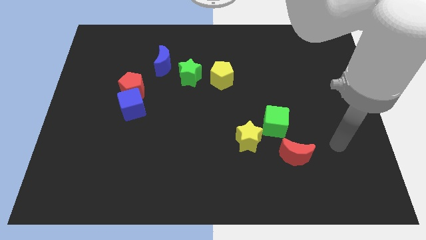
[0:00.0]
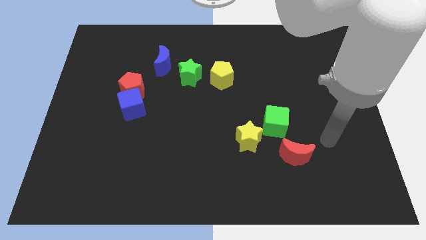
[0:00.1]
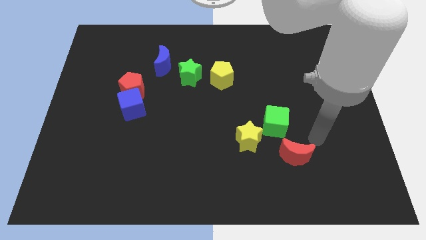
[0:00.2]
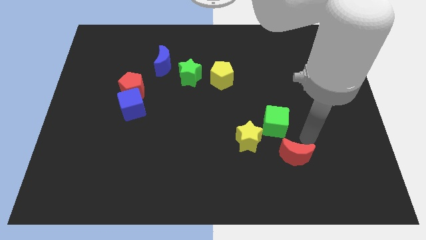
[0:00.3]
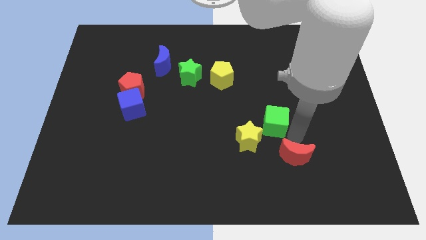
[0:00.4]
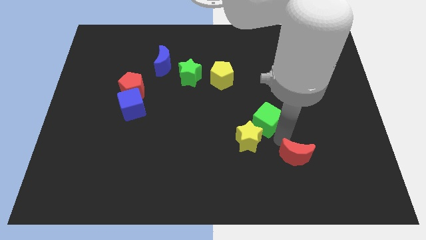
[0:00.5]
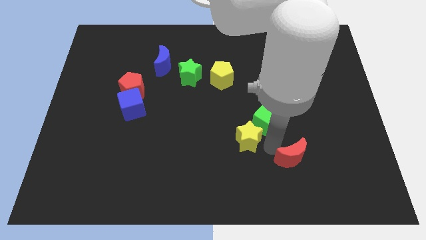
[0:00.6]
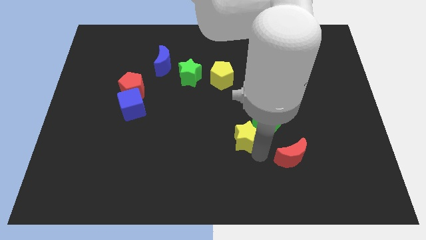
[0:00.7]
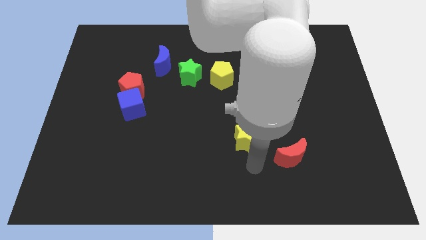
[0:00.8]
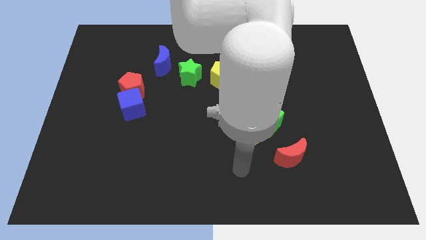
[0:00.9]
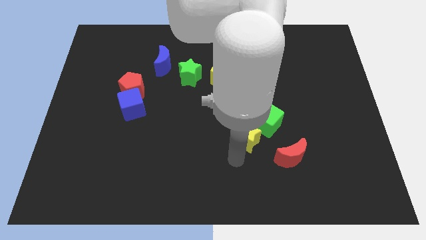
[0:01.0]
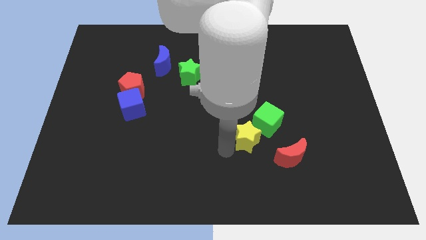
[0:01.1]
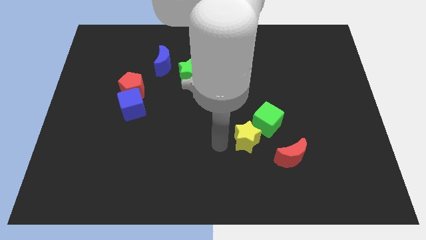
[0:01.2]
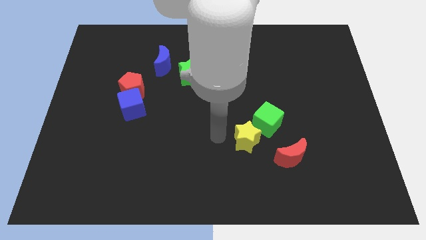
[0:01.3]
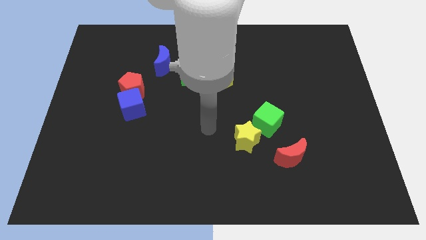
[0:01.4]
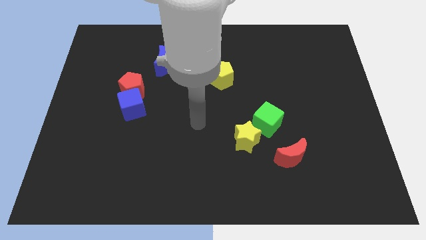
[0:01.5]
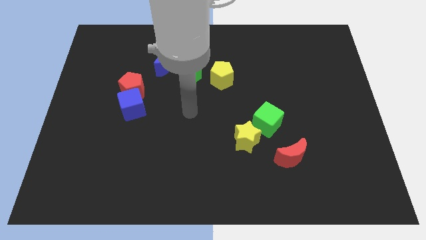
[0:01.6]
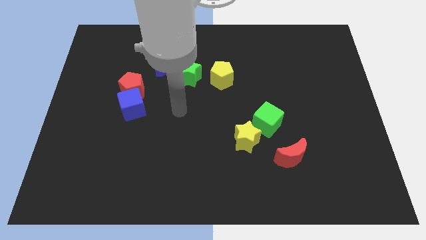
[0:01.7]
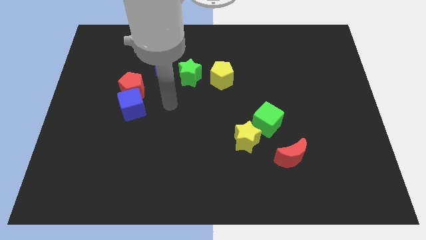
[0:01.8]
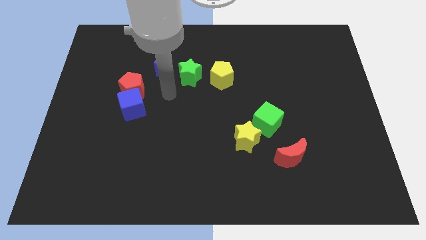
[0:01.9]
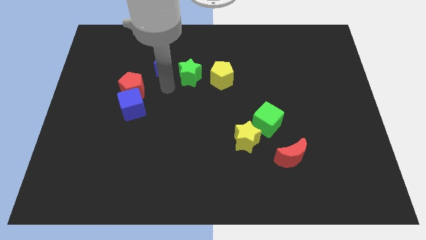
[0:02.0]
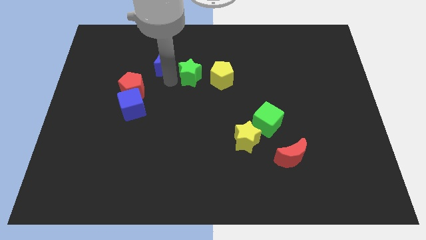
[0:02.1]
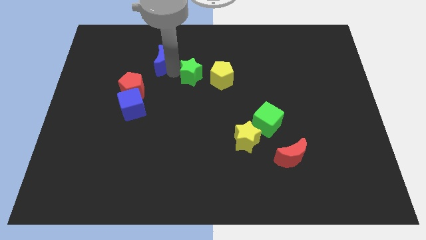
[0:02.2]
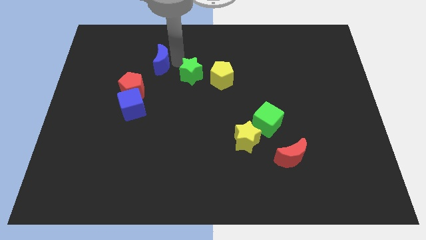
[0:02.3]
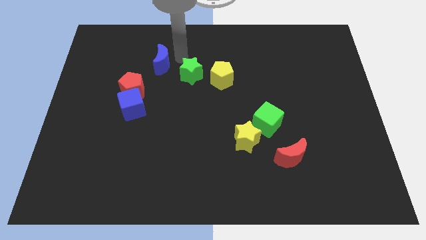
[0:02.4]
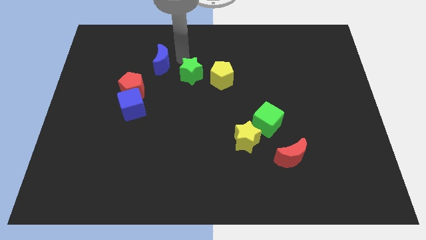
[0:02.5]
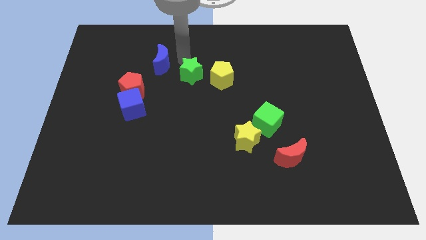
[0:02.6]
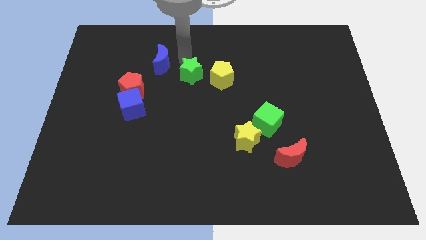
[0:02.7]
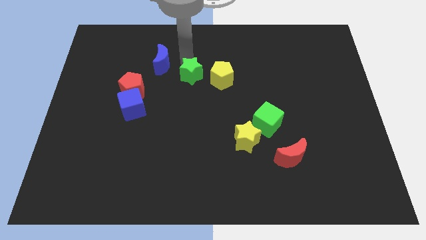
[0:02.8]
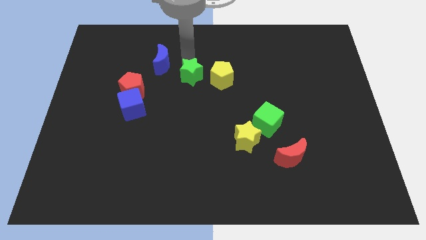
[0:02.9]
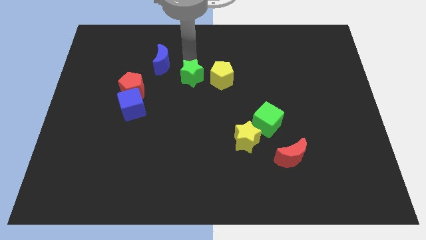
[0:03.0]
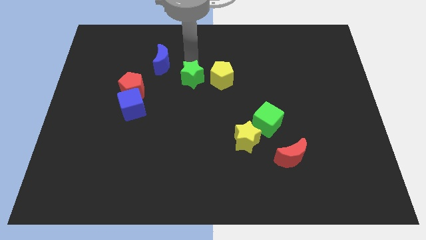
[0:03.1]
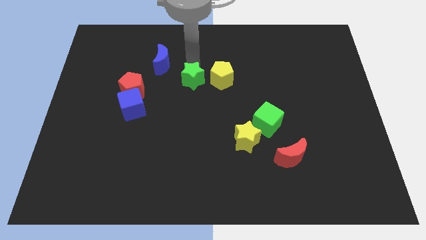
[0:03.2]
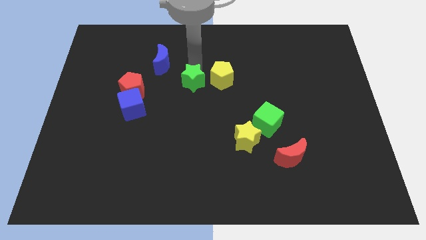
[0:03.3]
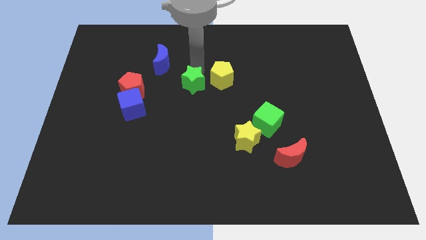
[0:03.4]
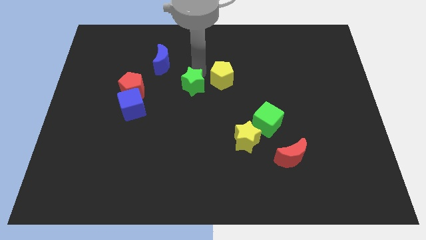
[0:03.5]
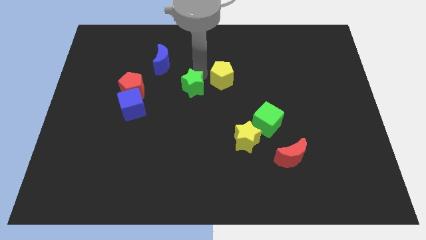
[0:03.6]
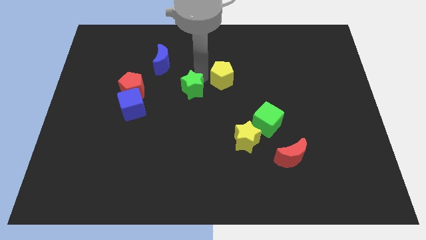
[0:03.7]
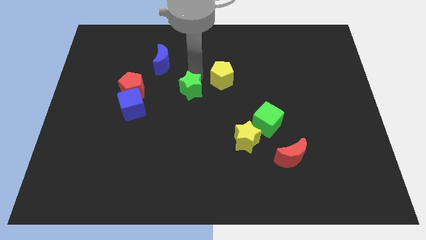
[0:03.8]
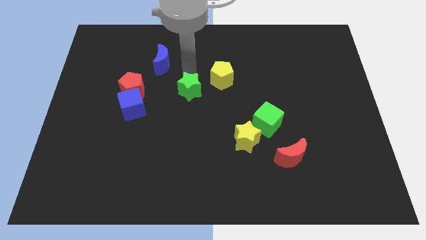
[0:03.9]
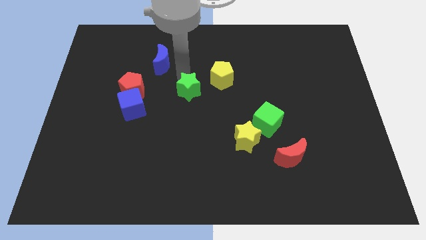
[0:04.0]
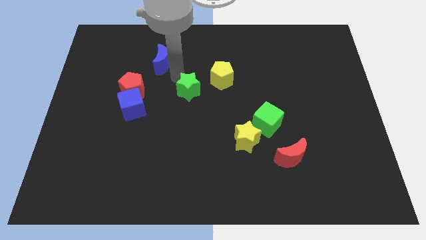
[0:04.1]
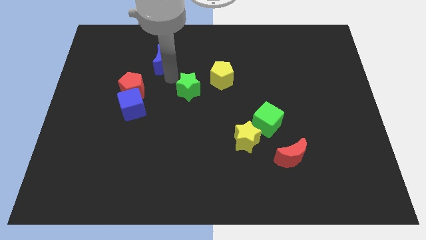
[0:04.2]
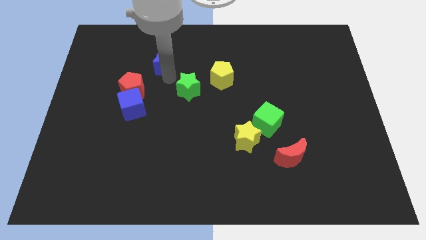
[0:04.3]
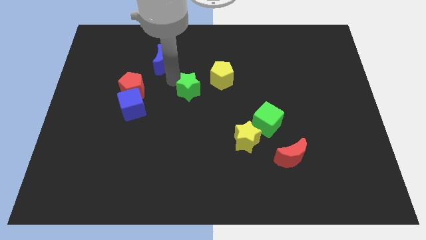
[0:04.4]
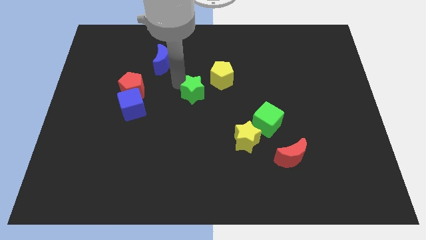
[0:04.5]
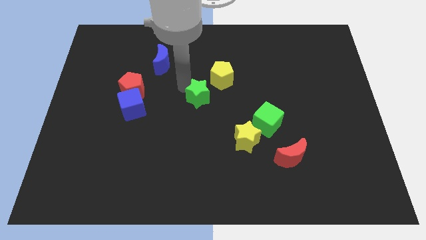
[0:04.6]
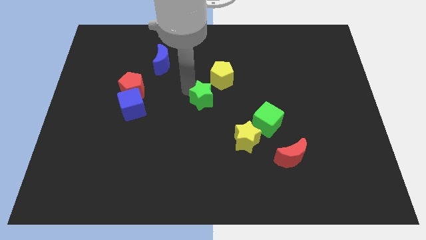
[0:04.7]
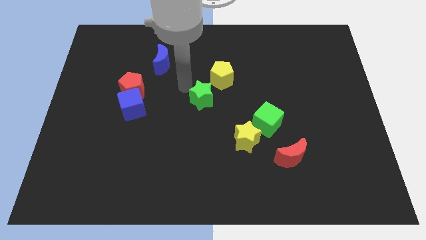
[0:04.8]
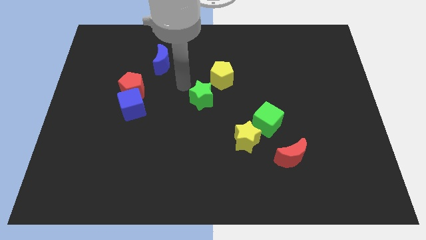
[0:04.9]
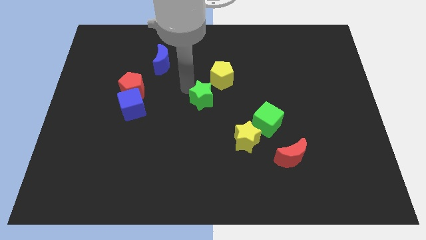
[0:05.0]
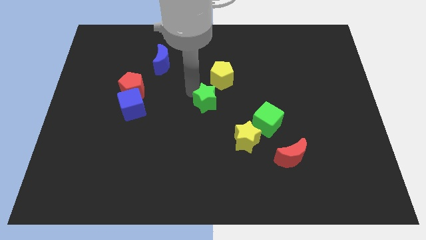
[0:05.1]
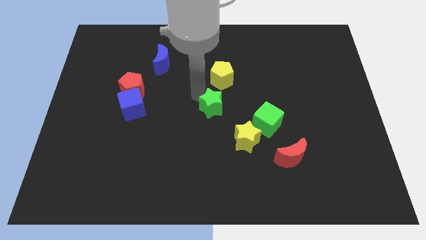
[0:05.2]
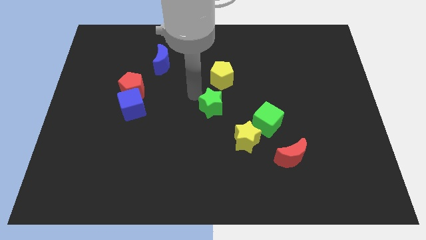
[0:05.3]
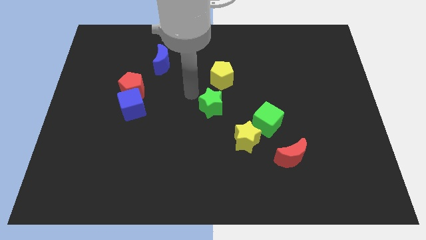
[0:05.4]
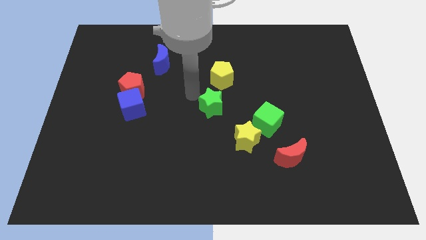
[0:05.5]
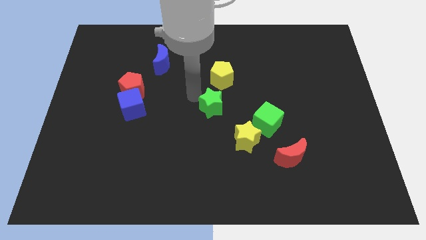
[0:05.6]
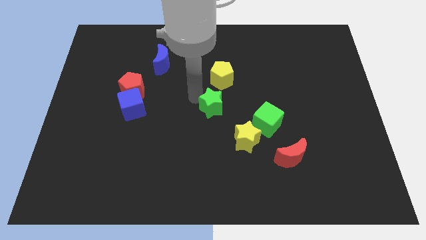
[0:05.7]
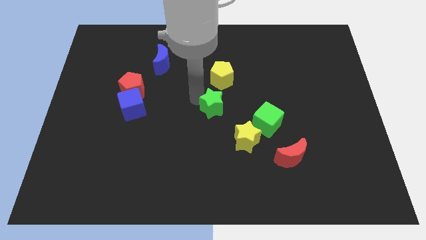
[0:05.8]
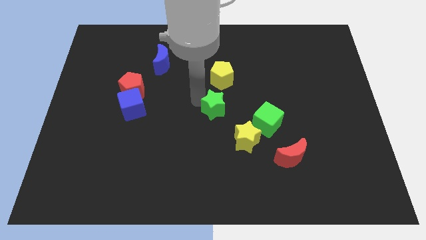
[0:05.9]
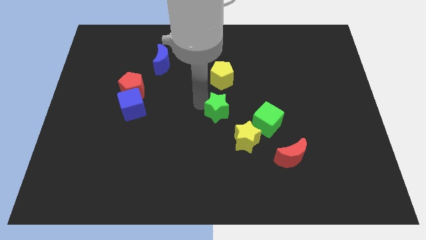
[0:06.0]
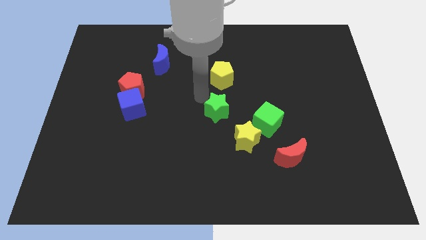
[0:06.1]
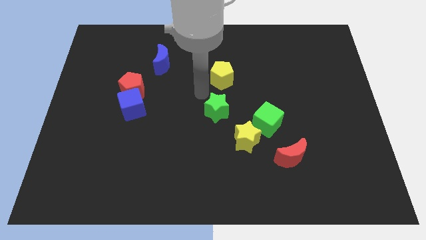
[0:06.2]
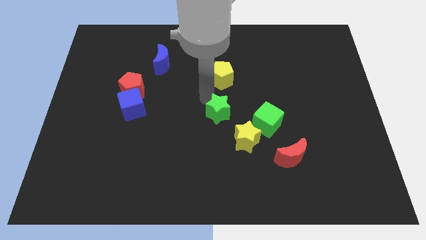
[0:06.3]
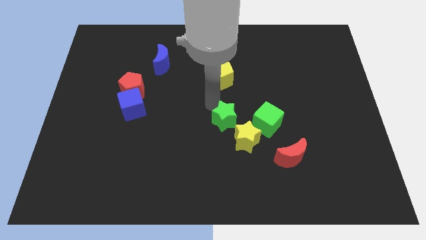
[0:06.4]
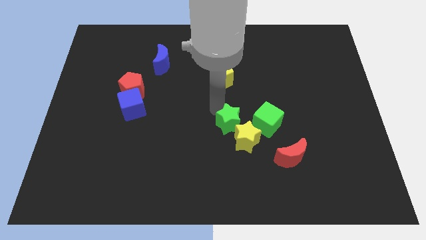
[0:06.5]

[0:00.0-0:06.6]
put the green star close to the yellow star

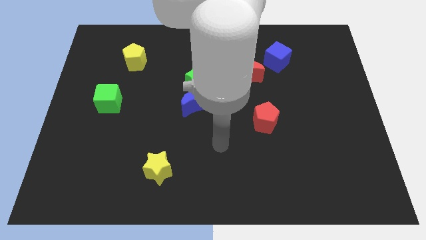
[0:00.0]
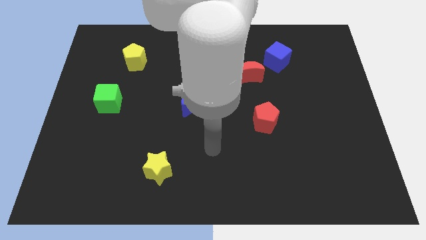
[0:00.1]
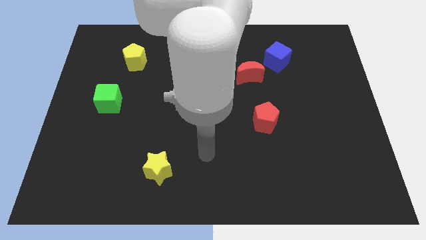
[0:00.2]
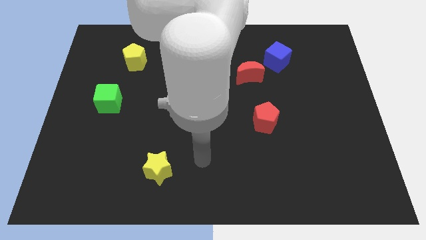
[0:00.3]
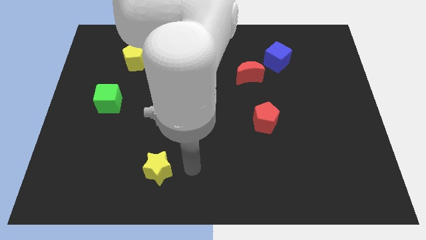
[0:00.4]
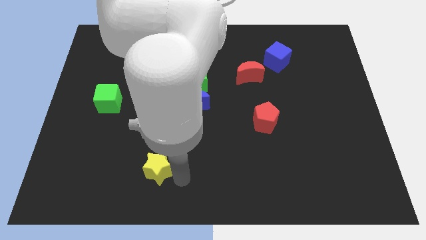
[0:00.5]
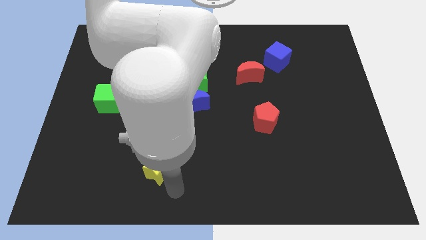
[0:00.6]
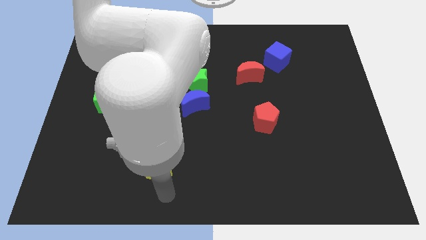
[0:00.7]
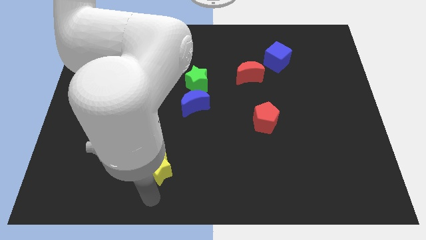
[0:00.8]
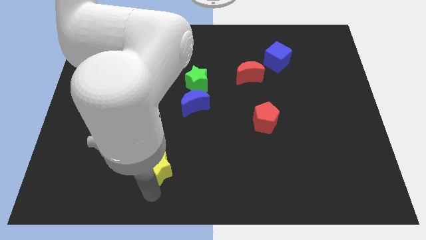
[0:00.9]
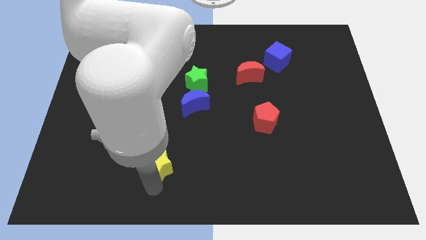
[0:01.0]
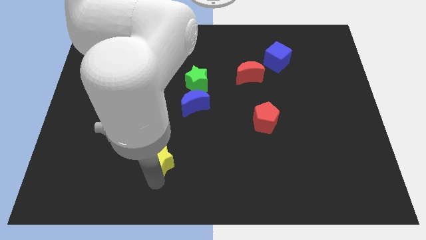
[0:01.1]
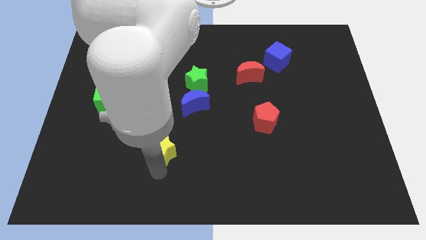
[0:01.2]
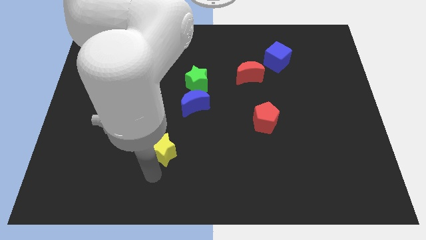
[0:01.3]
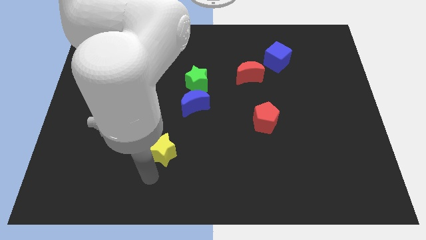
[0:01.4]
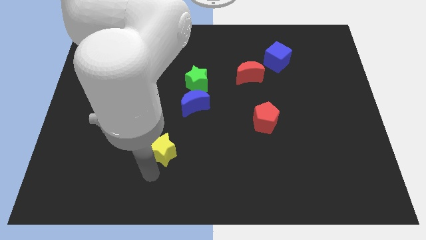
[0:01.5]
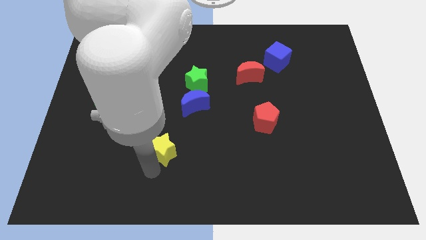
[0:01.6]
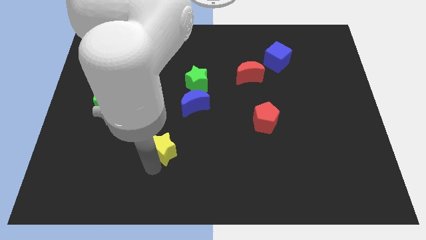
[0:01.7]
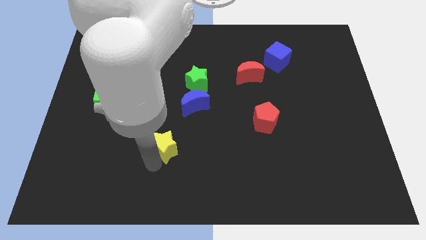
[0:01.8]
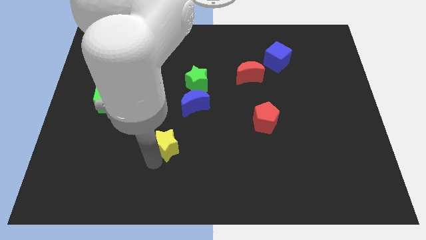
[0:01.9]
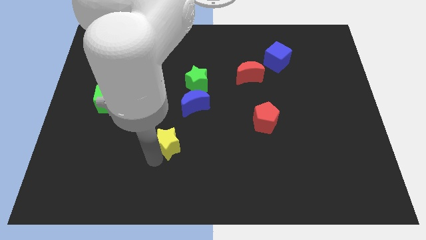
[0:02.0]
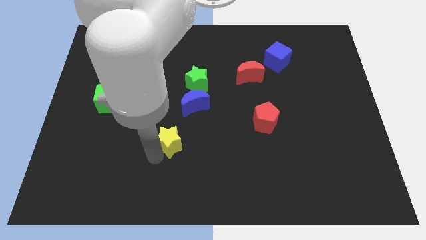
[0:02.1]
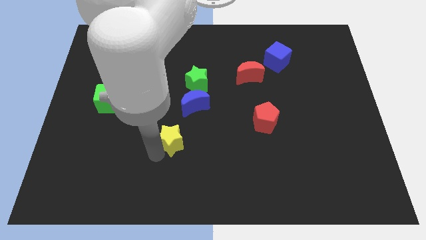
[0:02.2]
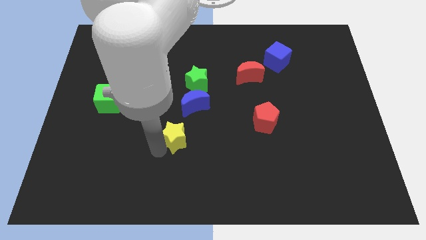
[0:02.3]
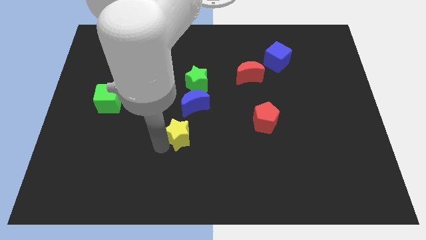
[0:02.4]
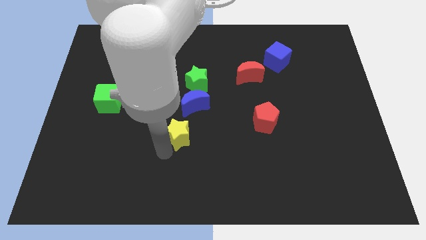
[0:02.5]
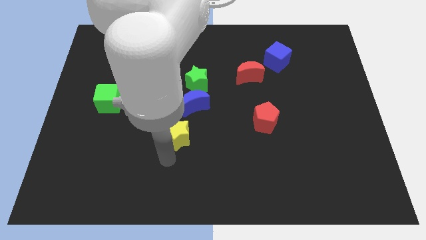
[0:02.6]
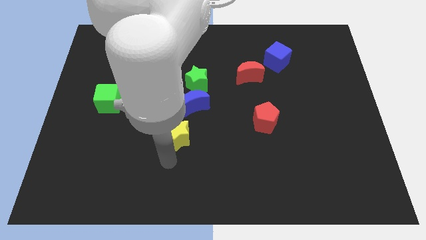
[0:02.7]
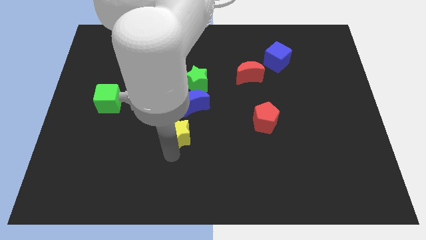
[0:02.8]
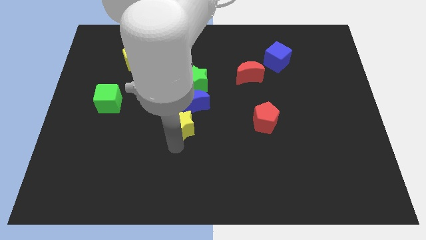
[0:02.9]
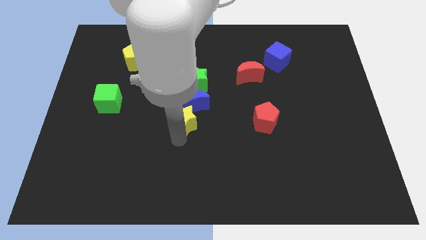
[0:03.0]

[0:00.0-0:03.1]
push the yellow star towards the blue moon
